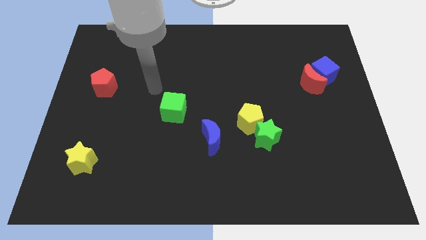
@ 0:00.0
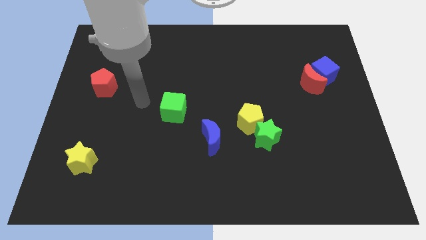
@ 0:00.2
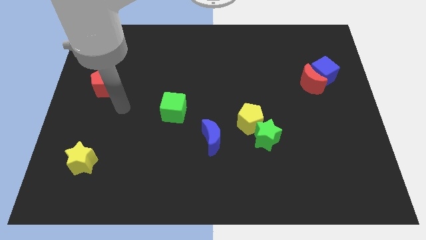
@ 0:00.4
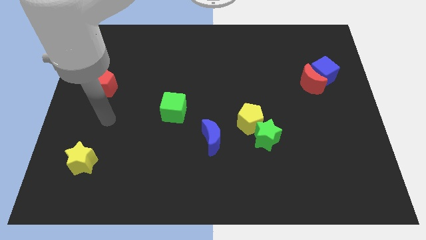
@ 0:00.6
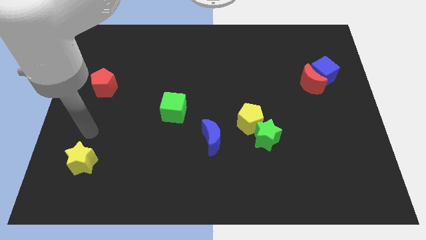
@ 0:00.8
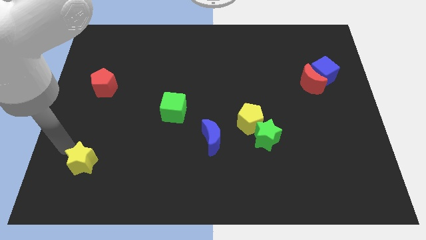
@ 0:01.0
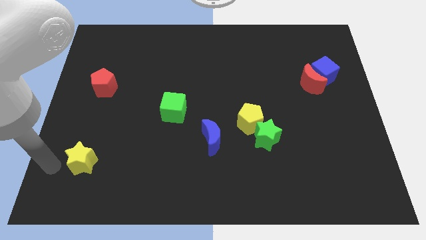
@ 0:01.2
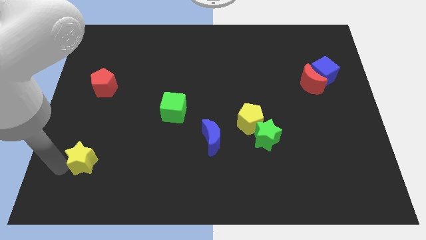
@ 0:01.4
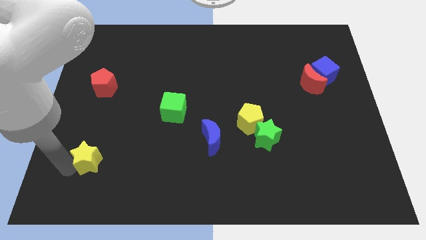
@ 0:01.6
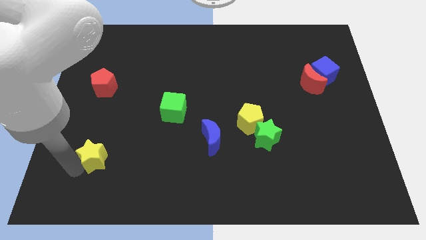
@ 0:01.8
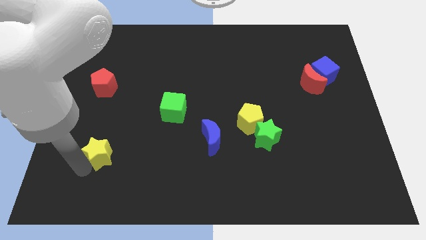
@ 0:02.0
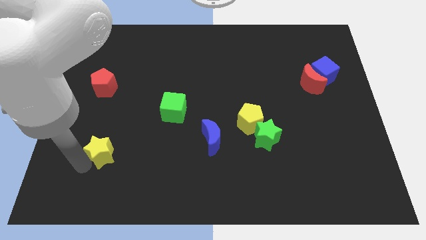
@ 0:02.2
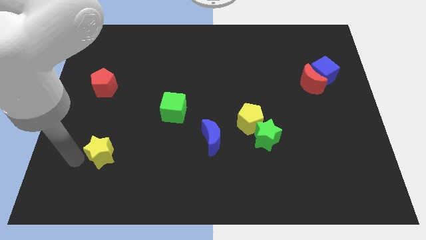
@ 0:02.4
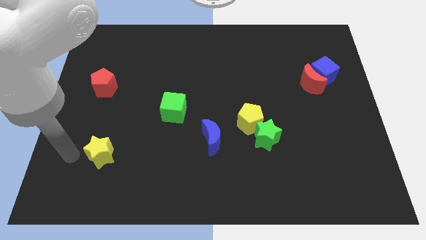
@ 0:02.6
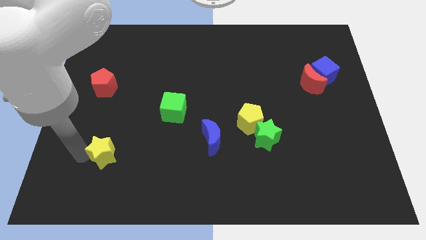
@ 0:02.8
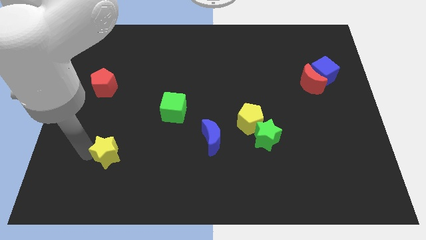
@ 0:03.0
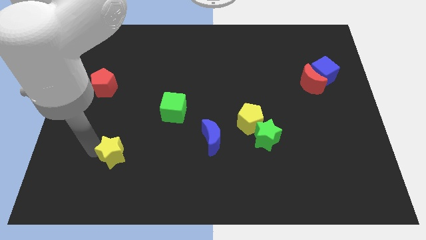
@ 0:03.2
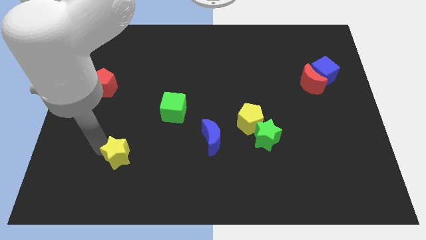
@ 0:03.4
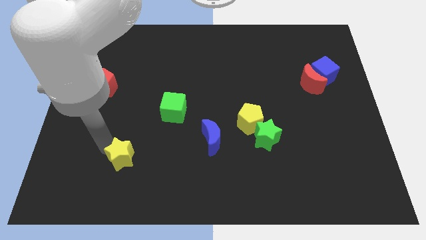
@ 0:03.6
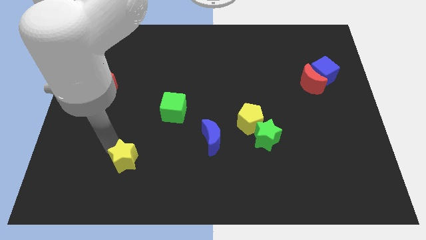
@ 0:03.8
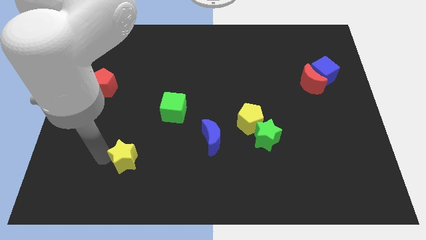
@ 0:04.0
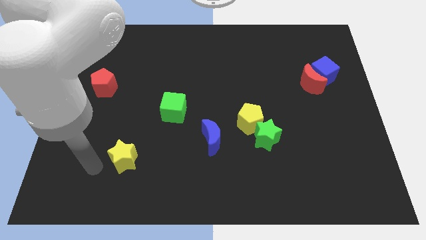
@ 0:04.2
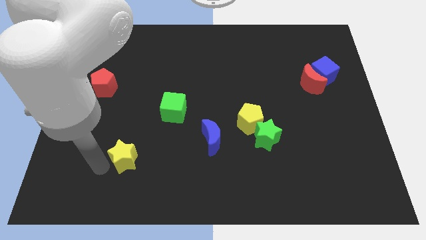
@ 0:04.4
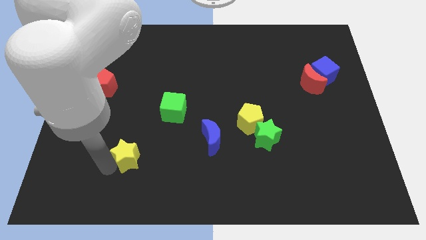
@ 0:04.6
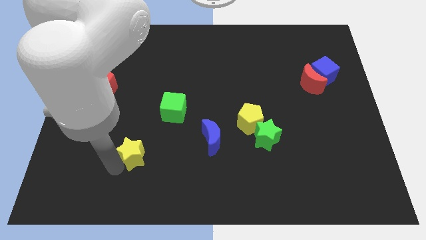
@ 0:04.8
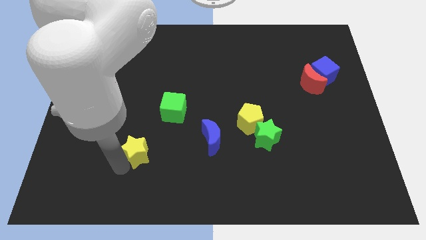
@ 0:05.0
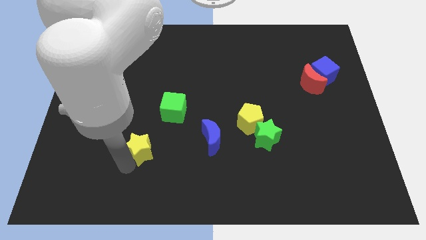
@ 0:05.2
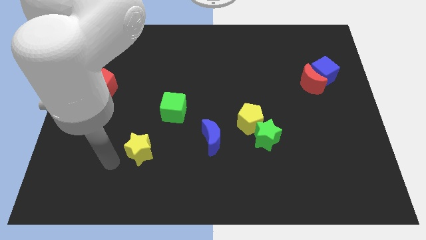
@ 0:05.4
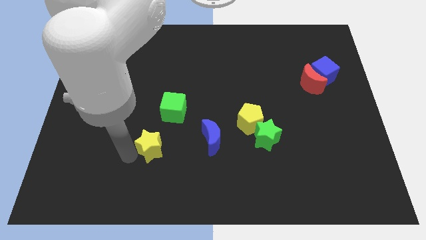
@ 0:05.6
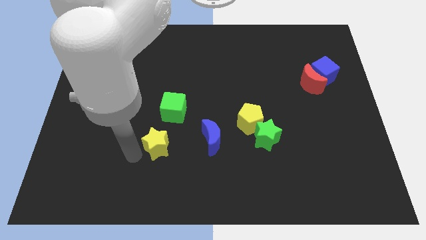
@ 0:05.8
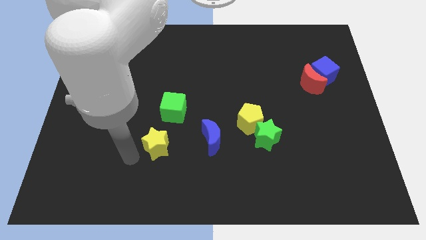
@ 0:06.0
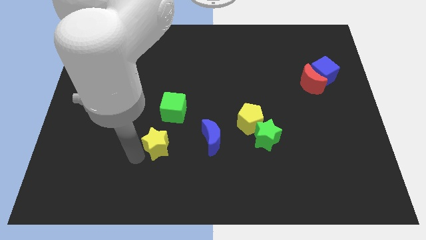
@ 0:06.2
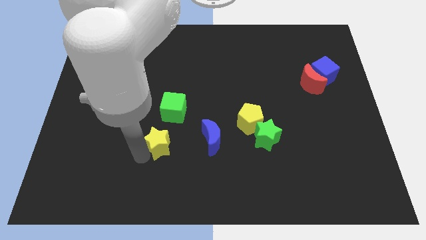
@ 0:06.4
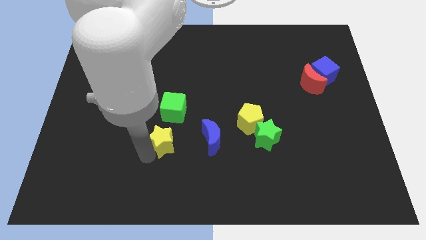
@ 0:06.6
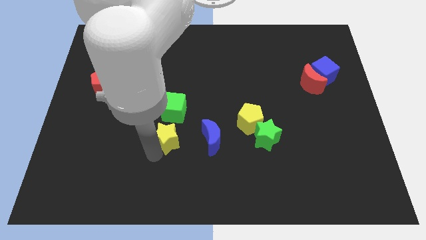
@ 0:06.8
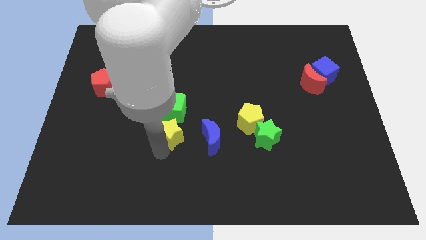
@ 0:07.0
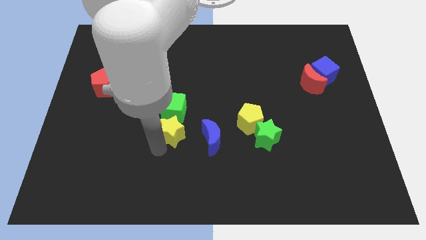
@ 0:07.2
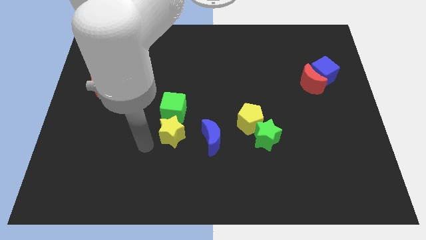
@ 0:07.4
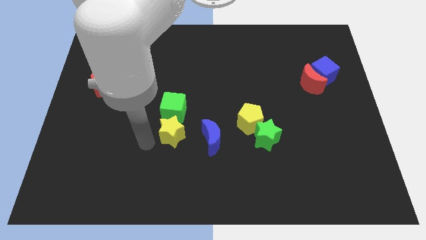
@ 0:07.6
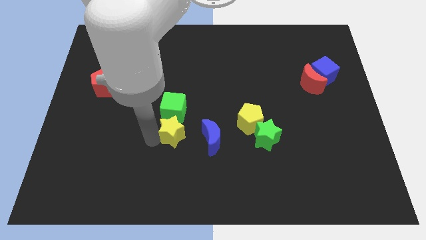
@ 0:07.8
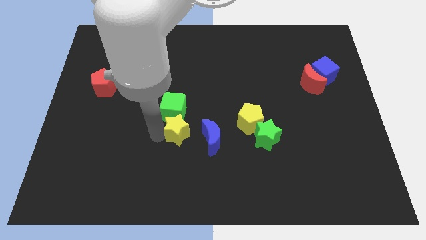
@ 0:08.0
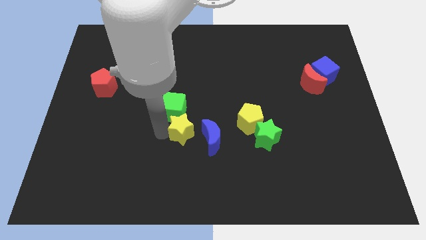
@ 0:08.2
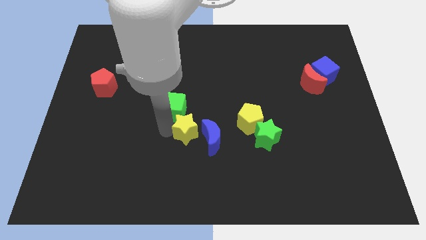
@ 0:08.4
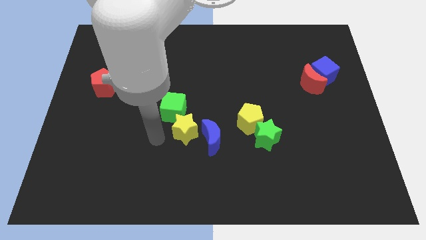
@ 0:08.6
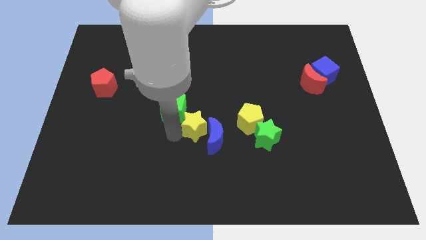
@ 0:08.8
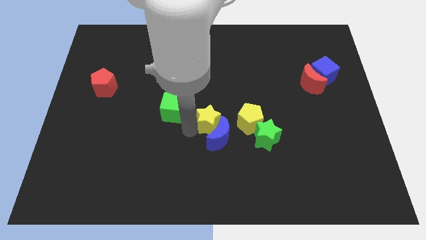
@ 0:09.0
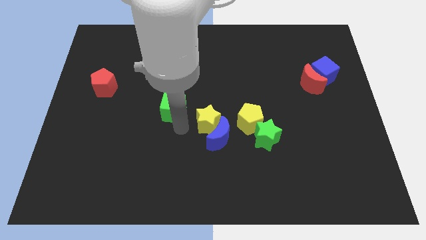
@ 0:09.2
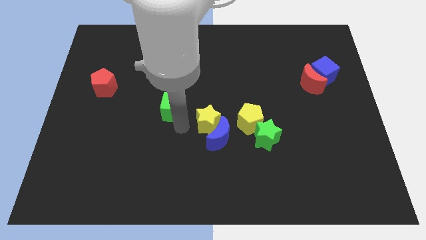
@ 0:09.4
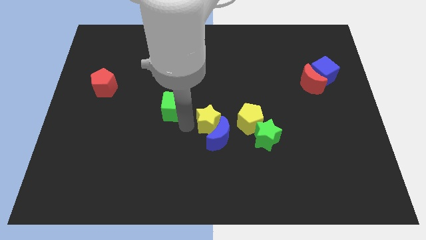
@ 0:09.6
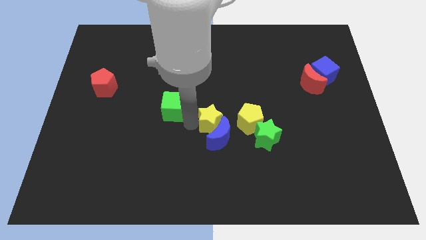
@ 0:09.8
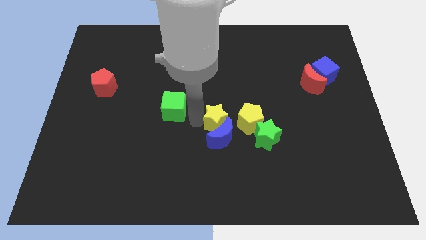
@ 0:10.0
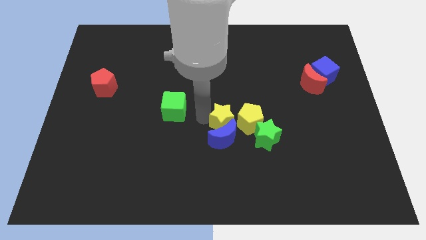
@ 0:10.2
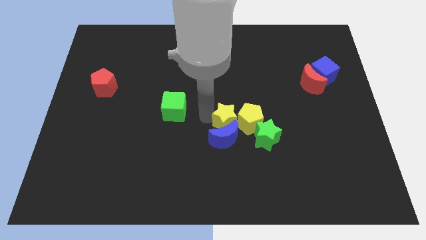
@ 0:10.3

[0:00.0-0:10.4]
put the yellow star next to the yellow pentagon

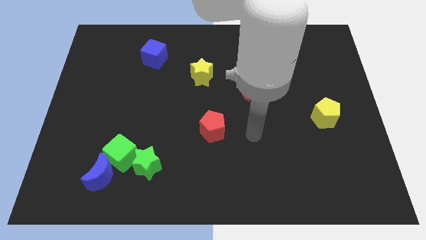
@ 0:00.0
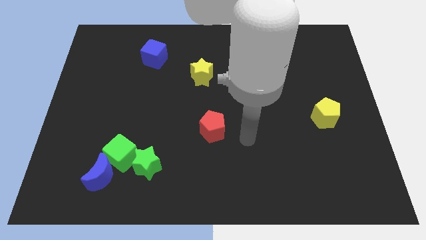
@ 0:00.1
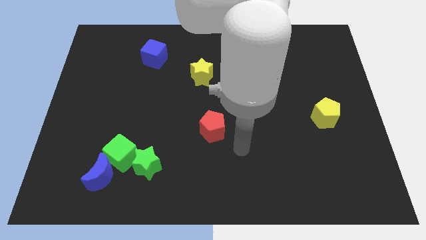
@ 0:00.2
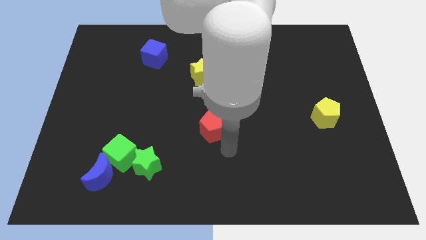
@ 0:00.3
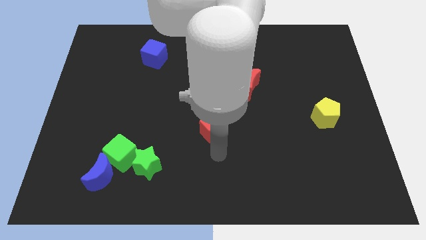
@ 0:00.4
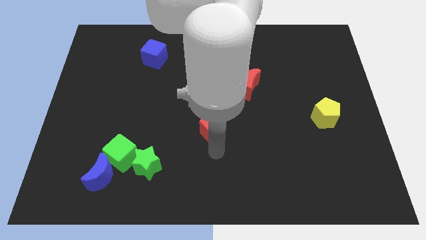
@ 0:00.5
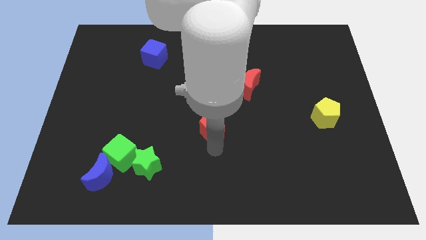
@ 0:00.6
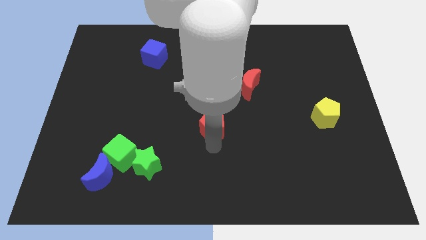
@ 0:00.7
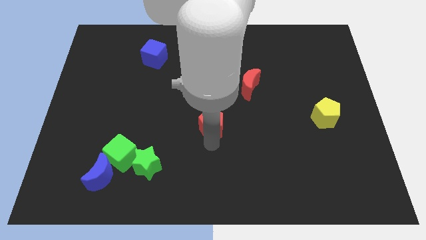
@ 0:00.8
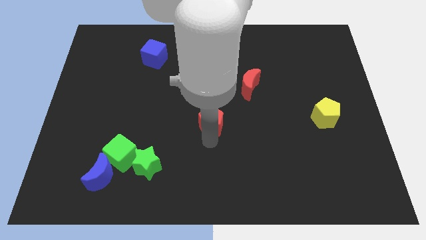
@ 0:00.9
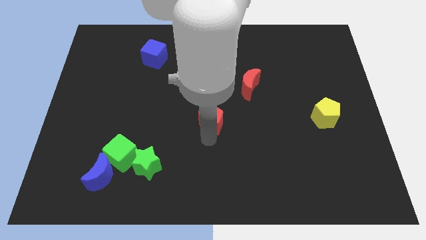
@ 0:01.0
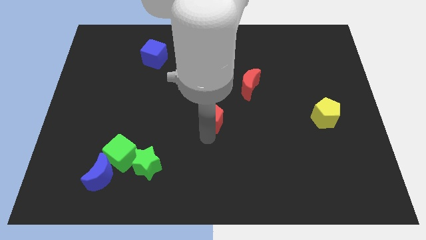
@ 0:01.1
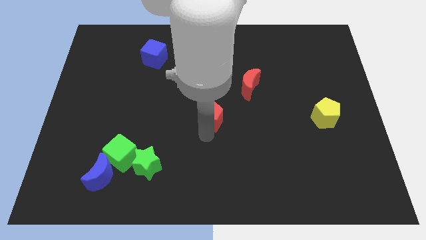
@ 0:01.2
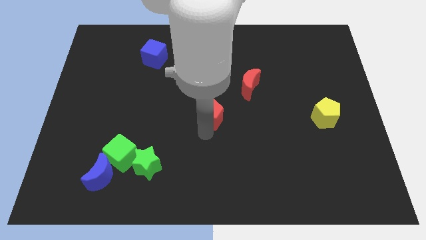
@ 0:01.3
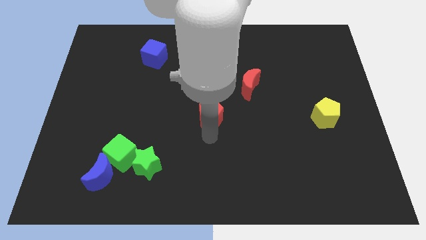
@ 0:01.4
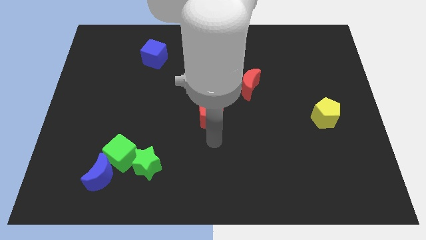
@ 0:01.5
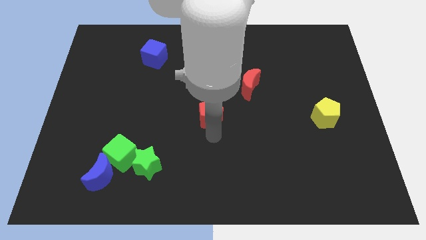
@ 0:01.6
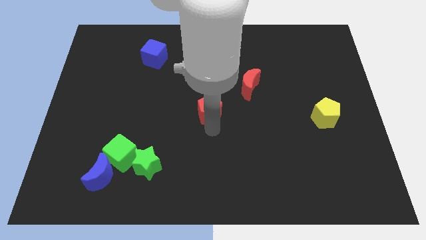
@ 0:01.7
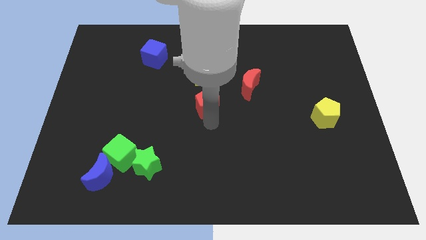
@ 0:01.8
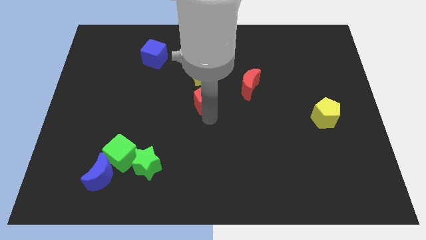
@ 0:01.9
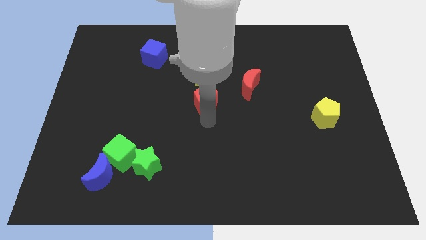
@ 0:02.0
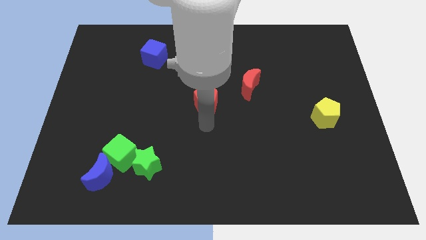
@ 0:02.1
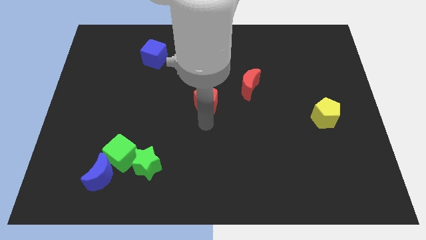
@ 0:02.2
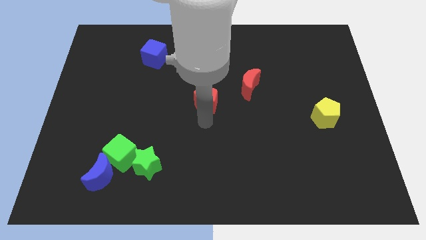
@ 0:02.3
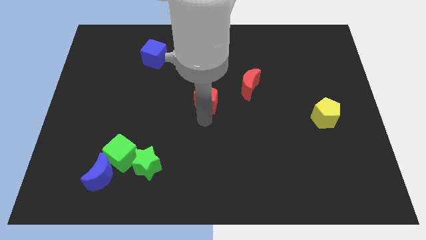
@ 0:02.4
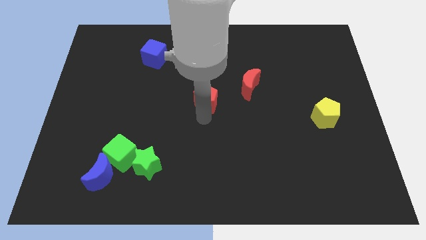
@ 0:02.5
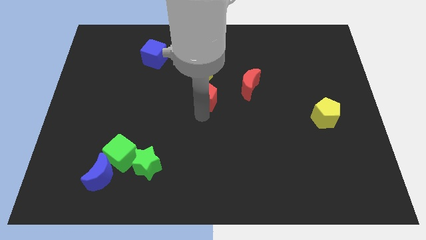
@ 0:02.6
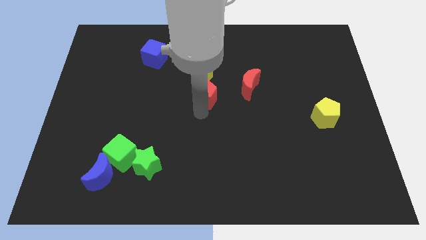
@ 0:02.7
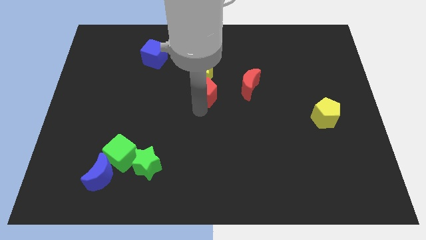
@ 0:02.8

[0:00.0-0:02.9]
put the red pentagon next to the yellow star
